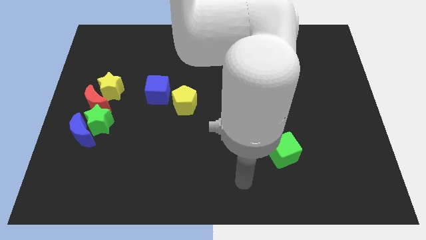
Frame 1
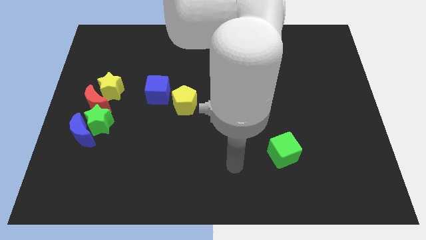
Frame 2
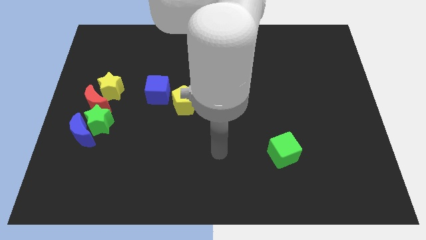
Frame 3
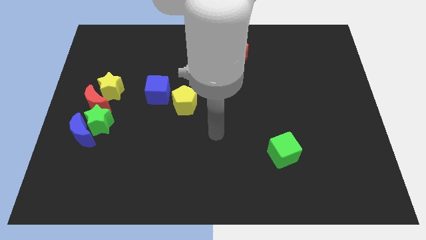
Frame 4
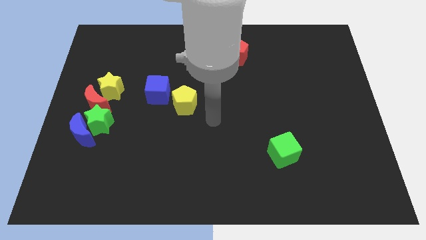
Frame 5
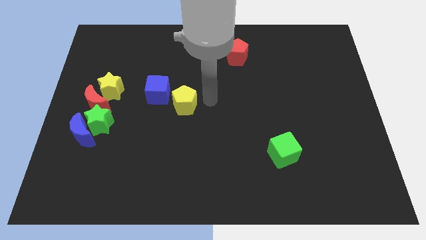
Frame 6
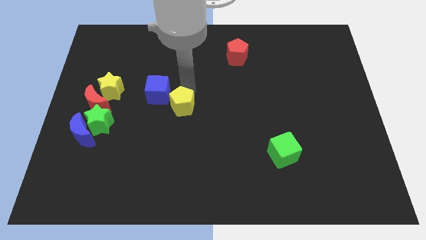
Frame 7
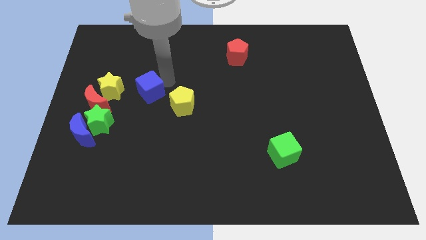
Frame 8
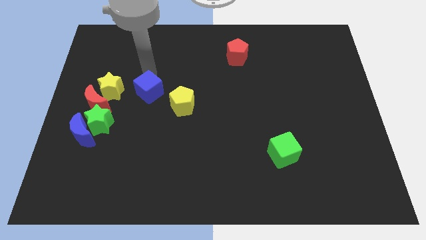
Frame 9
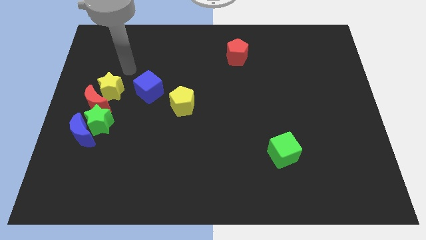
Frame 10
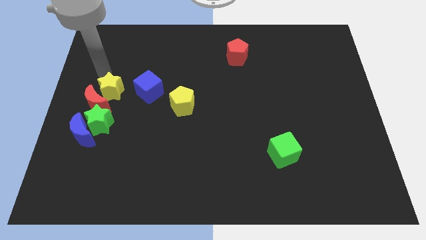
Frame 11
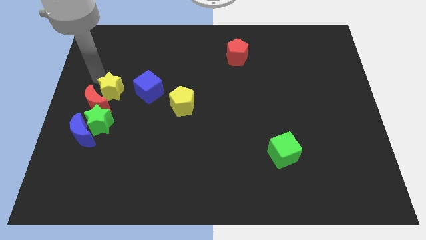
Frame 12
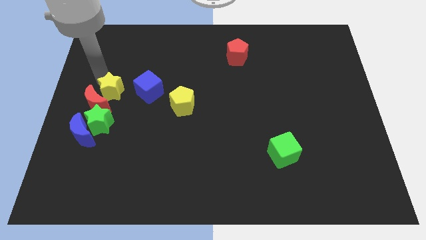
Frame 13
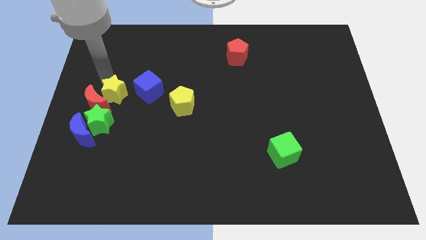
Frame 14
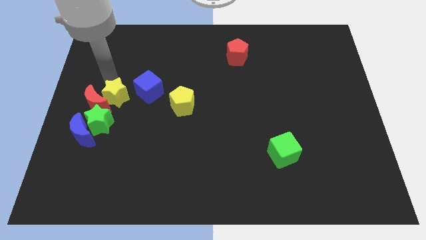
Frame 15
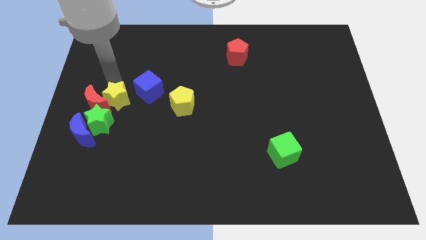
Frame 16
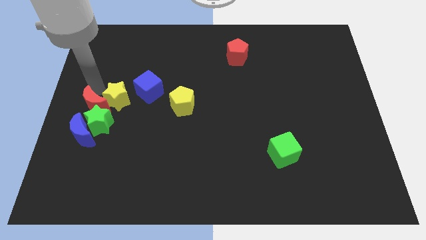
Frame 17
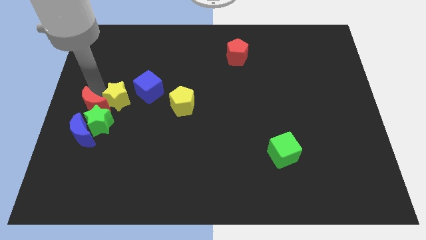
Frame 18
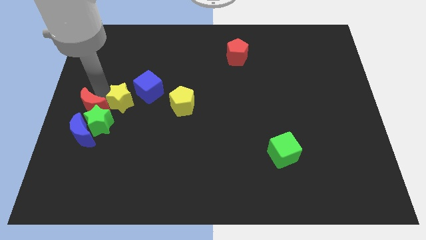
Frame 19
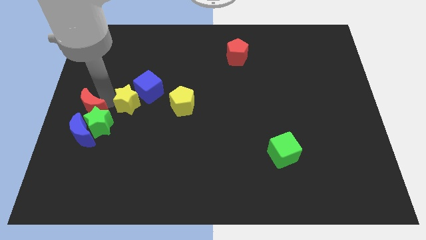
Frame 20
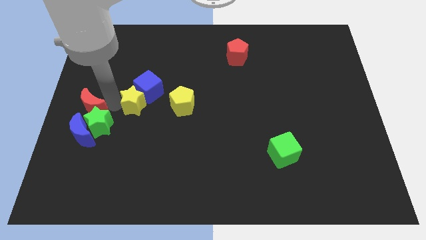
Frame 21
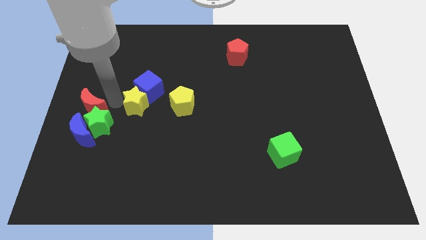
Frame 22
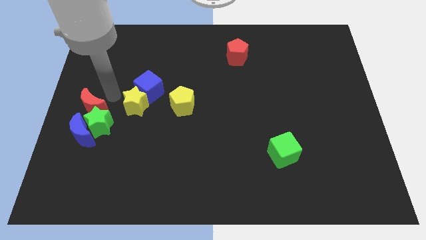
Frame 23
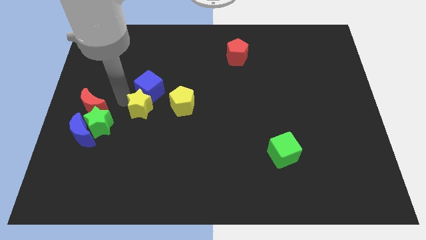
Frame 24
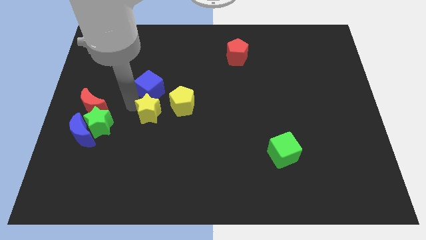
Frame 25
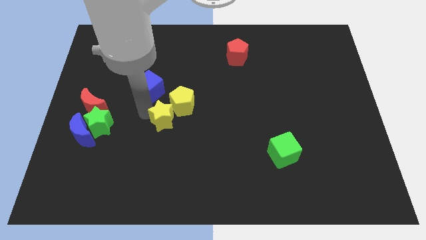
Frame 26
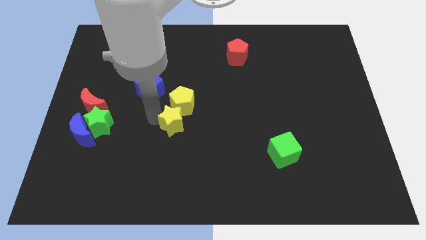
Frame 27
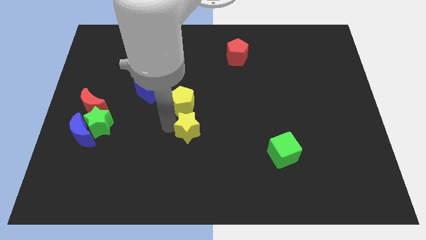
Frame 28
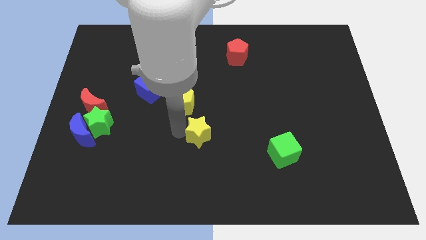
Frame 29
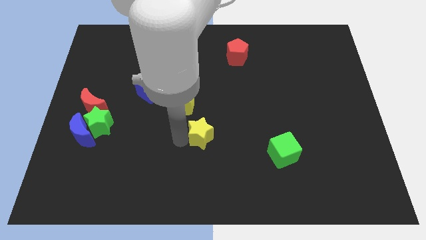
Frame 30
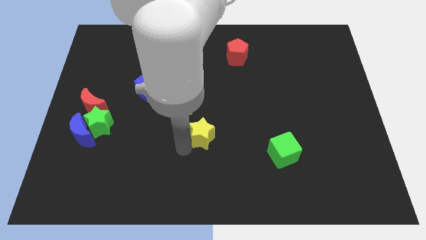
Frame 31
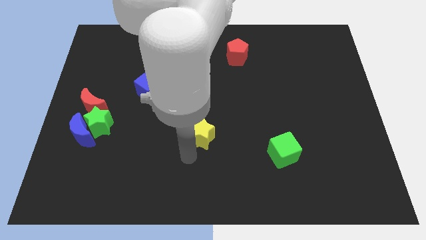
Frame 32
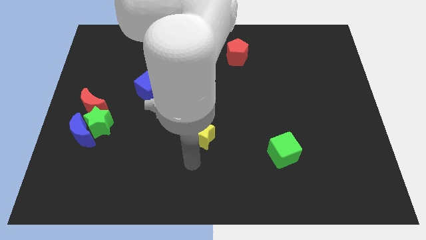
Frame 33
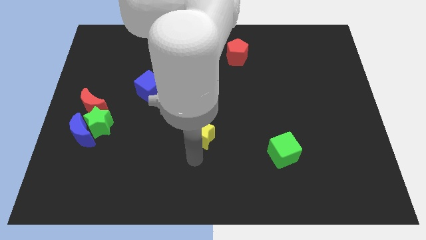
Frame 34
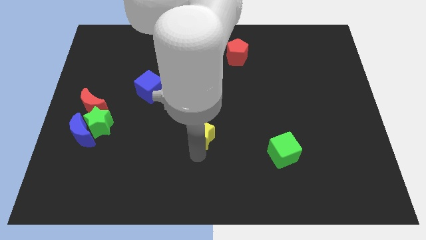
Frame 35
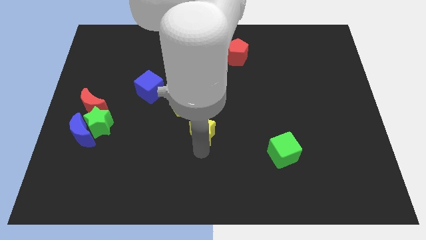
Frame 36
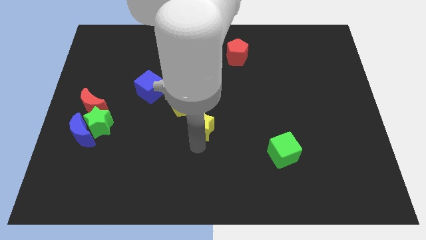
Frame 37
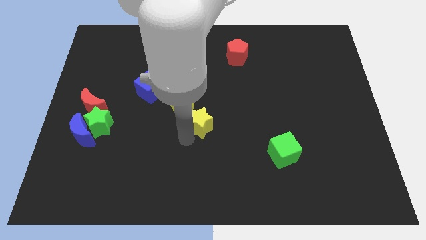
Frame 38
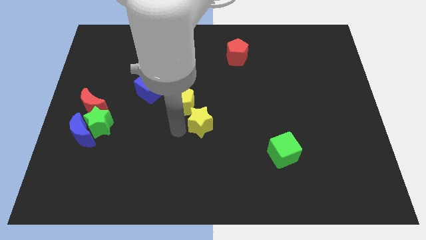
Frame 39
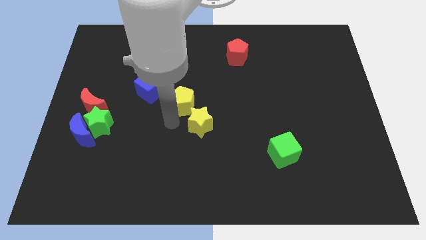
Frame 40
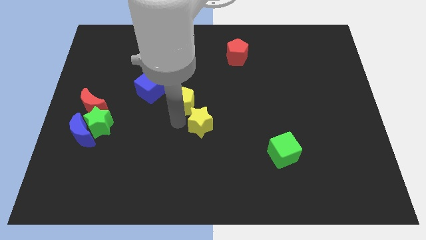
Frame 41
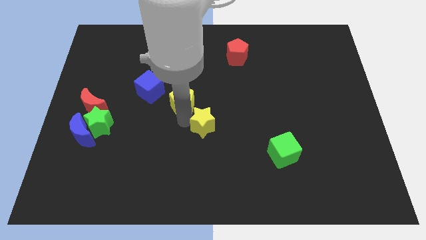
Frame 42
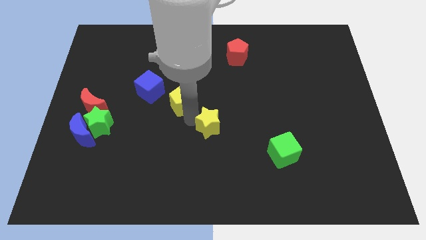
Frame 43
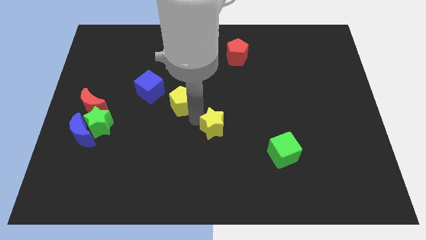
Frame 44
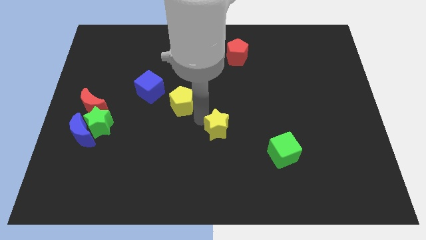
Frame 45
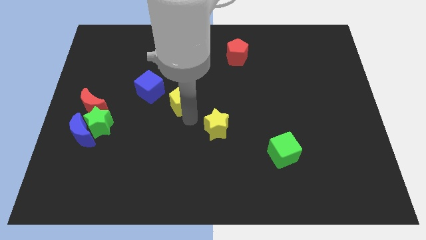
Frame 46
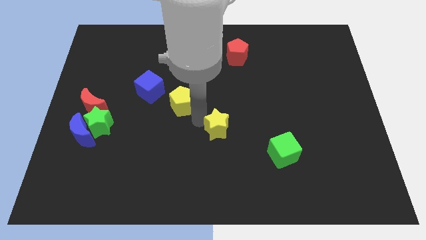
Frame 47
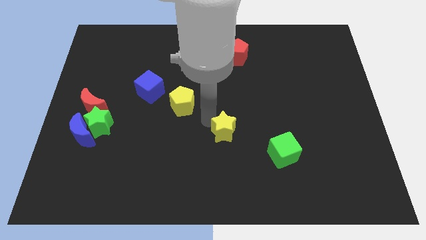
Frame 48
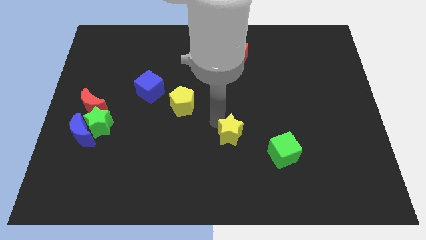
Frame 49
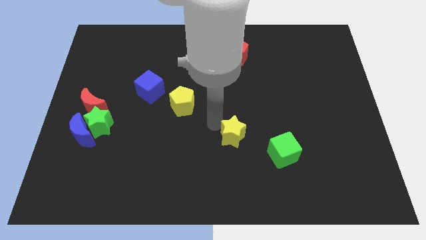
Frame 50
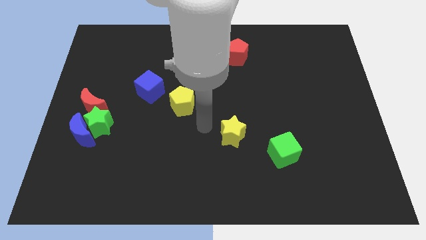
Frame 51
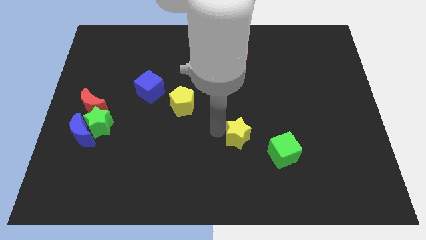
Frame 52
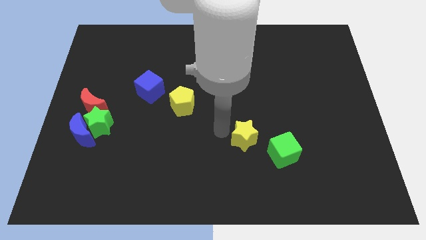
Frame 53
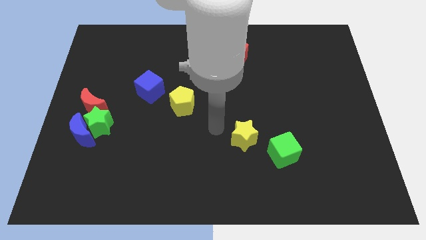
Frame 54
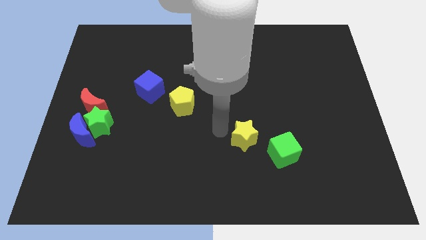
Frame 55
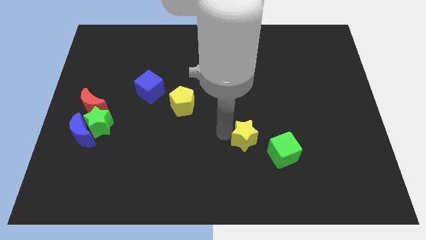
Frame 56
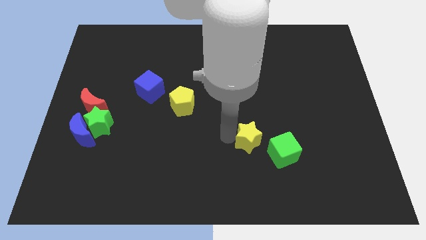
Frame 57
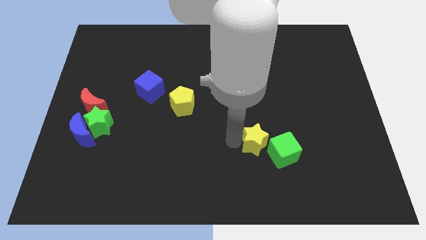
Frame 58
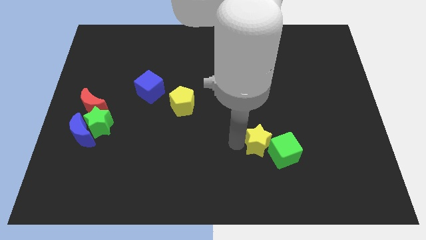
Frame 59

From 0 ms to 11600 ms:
slide the yellow star close to the green cube

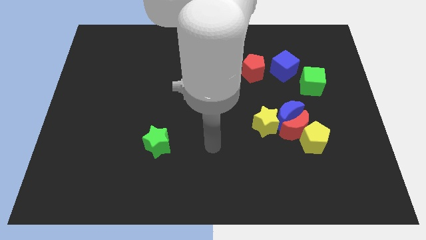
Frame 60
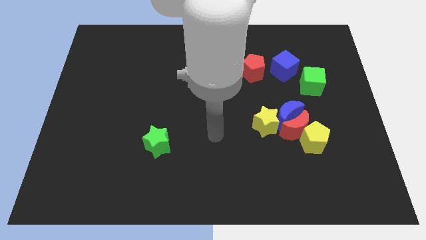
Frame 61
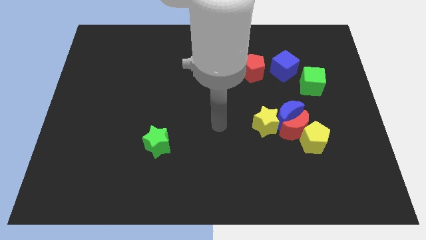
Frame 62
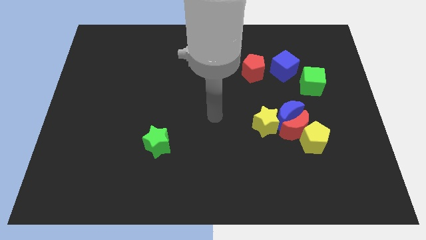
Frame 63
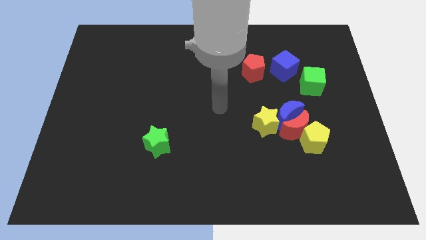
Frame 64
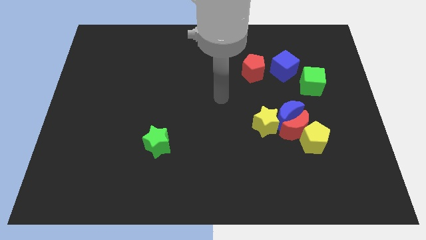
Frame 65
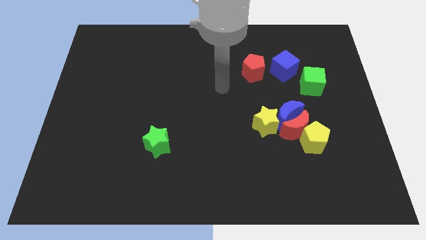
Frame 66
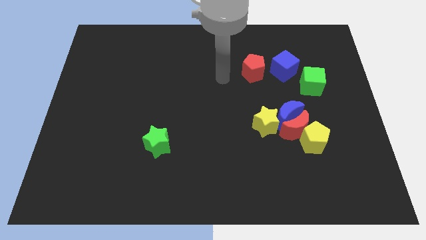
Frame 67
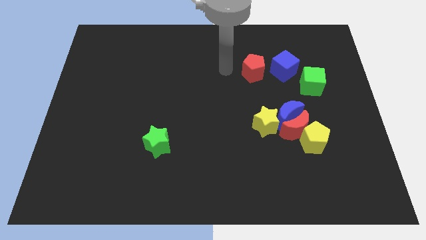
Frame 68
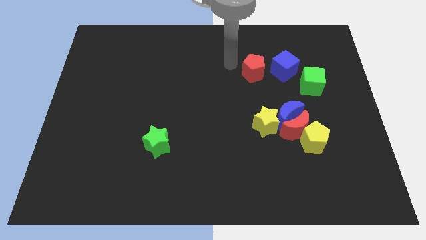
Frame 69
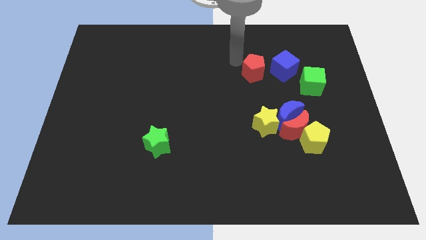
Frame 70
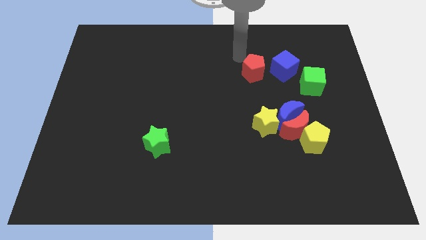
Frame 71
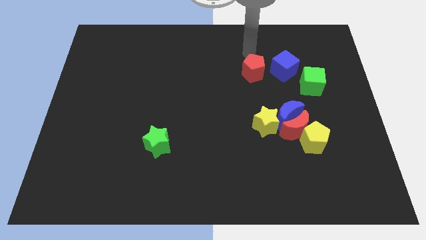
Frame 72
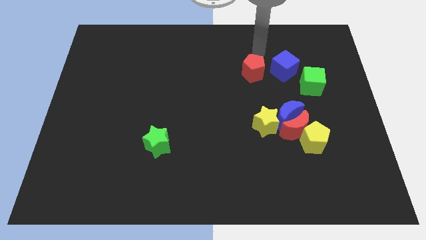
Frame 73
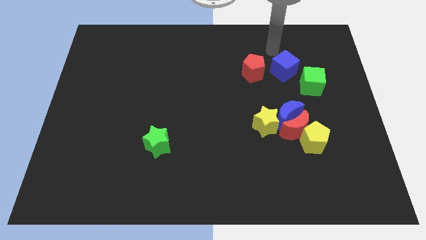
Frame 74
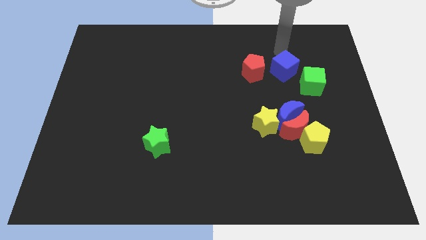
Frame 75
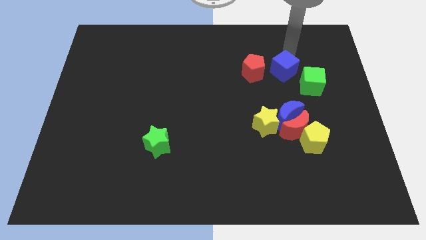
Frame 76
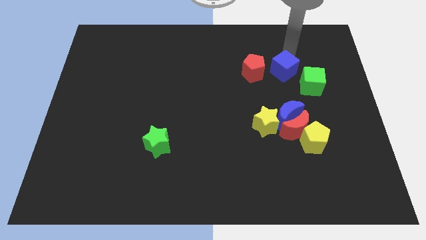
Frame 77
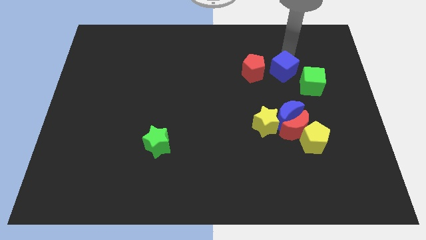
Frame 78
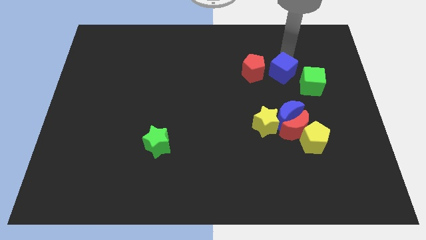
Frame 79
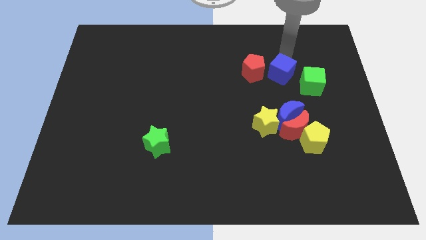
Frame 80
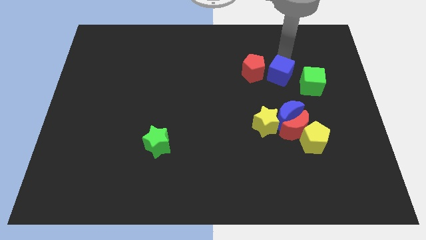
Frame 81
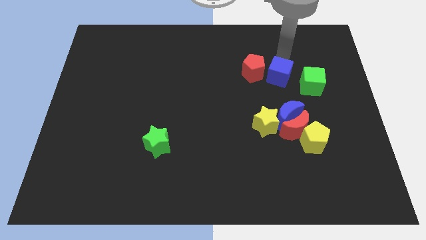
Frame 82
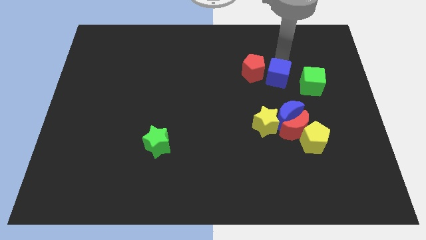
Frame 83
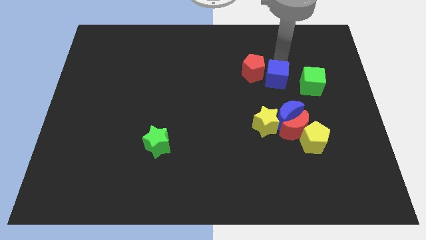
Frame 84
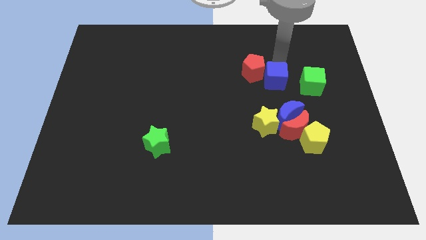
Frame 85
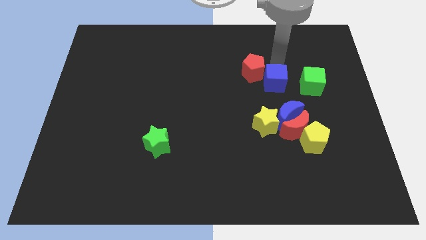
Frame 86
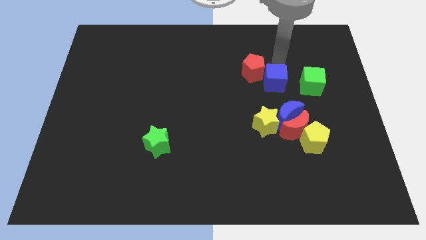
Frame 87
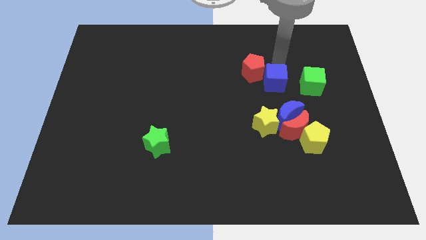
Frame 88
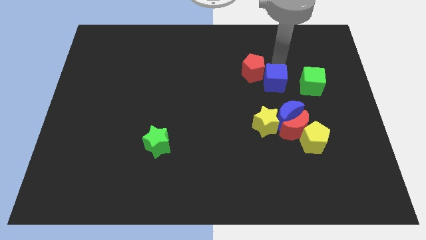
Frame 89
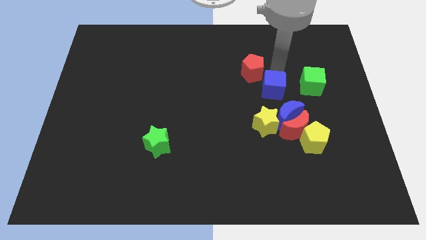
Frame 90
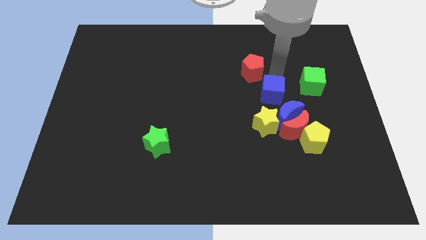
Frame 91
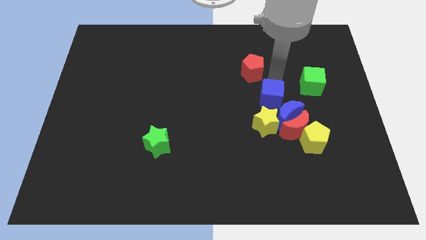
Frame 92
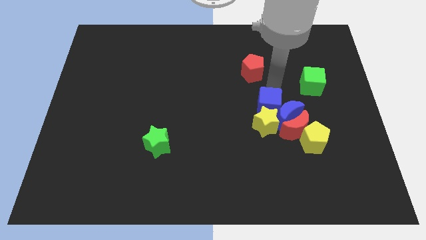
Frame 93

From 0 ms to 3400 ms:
slide the blue cube to the yellow star
